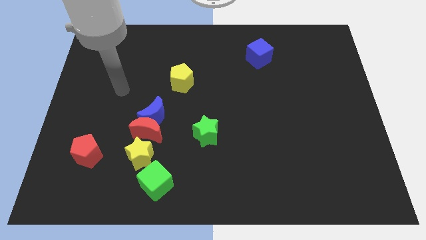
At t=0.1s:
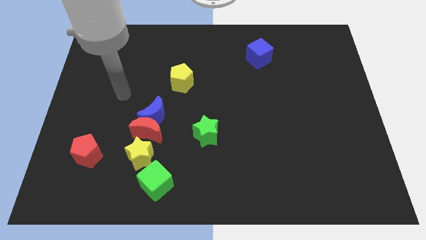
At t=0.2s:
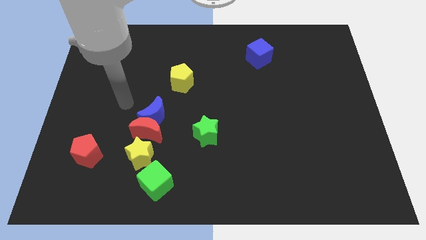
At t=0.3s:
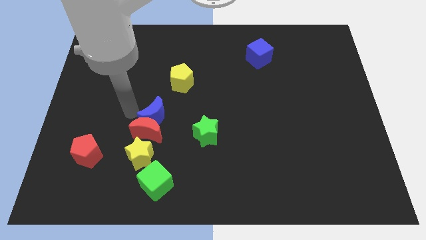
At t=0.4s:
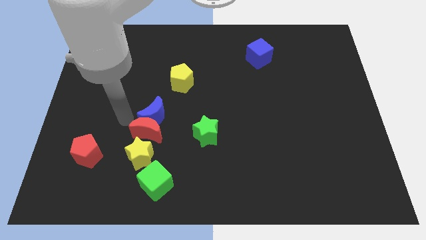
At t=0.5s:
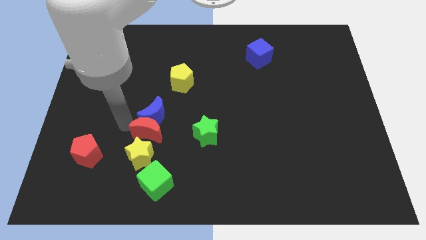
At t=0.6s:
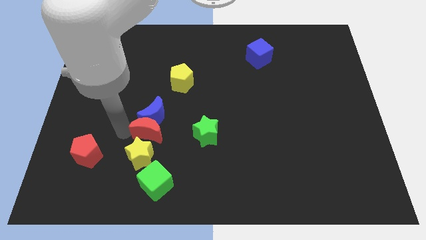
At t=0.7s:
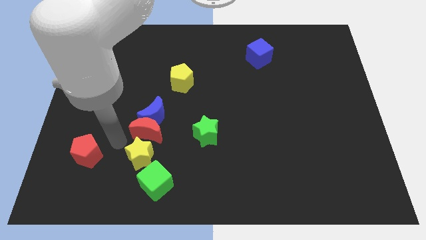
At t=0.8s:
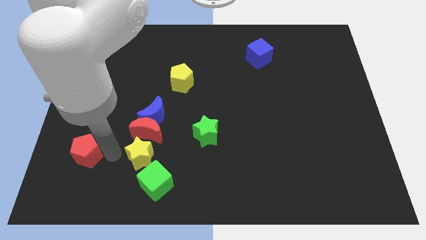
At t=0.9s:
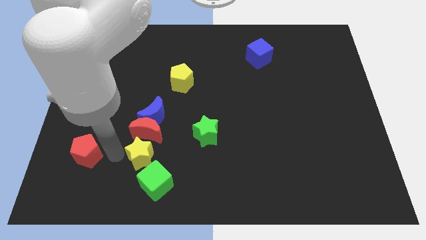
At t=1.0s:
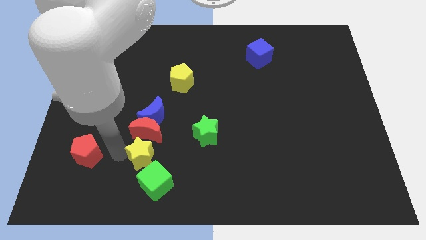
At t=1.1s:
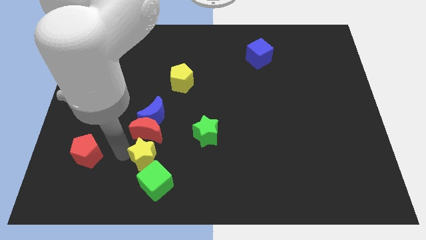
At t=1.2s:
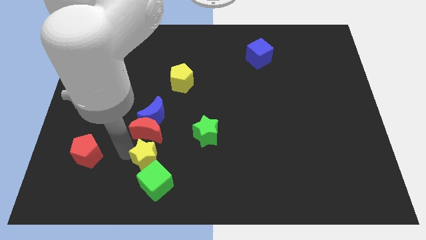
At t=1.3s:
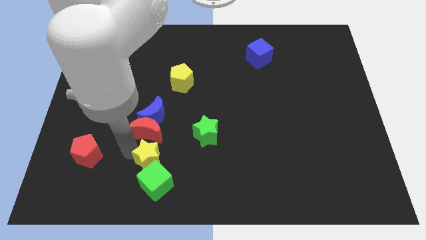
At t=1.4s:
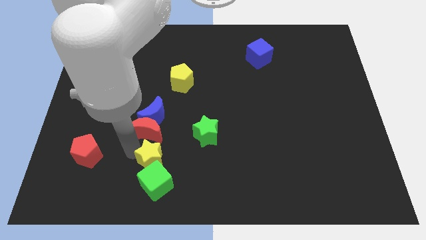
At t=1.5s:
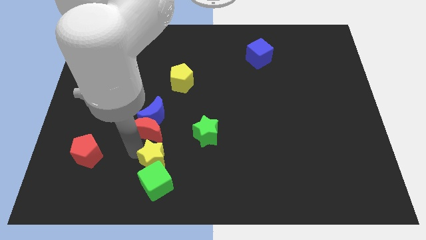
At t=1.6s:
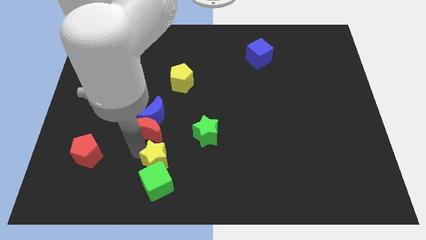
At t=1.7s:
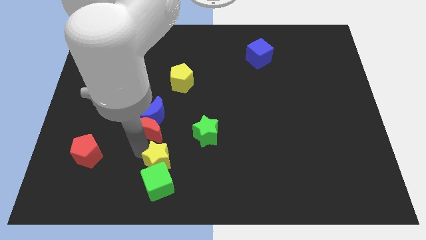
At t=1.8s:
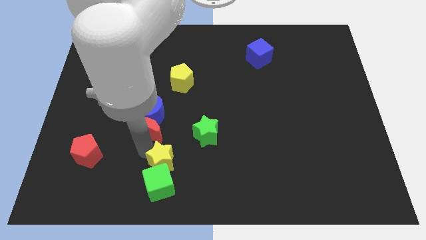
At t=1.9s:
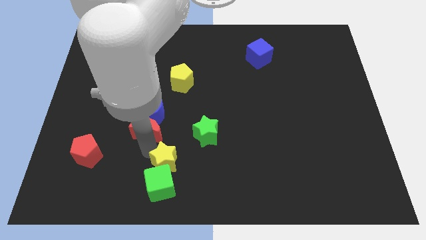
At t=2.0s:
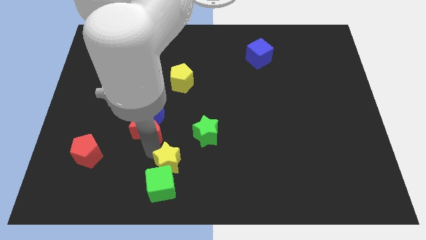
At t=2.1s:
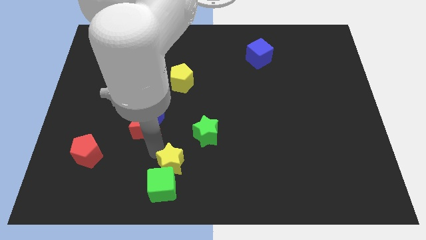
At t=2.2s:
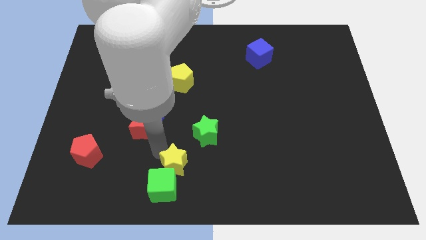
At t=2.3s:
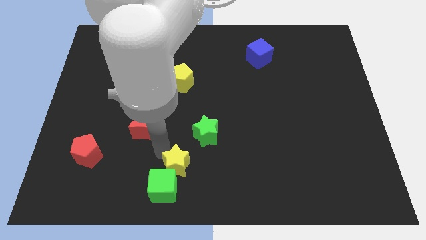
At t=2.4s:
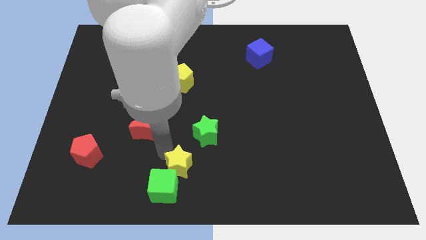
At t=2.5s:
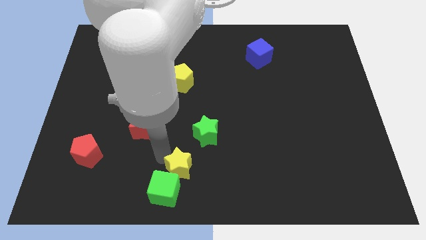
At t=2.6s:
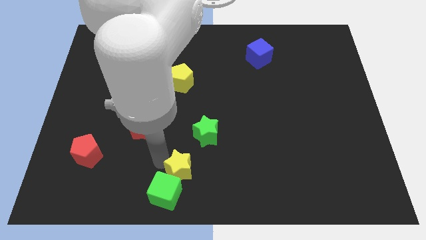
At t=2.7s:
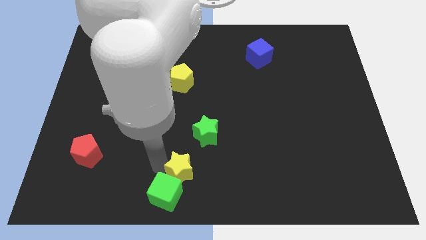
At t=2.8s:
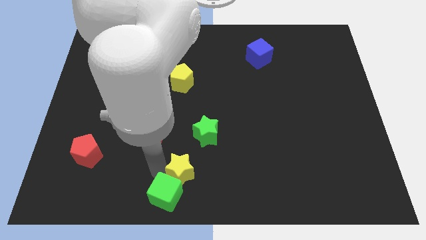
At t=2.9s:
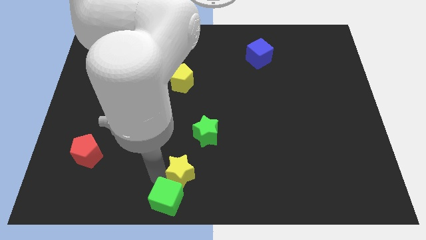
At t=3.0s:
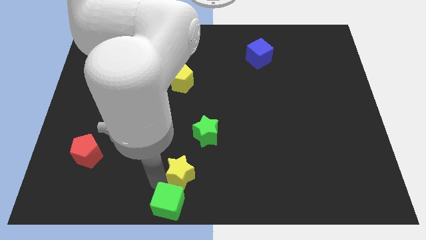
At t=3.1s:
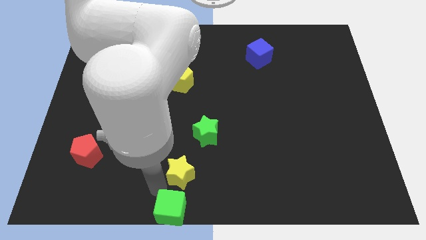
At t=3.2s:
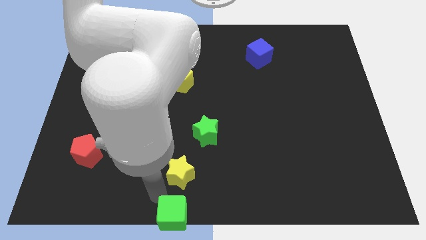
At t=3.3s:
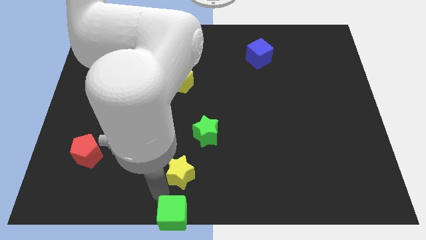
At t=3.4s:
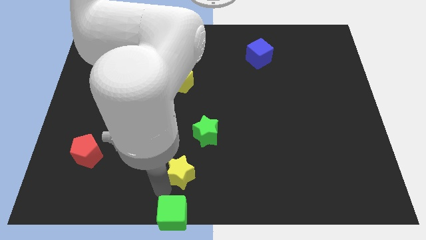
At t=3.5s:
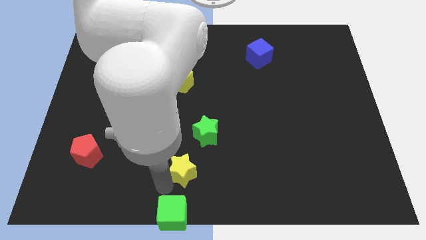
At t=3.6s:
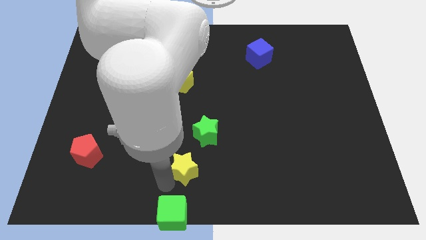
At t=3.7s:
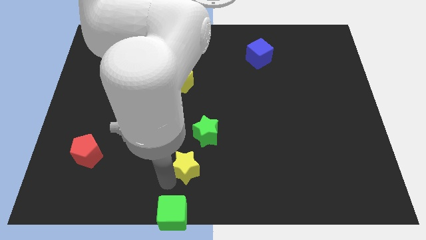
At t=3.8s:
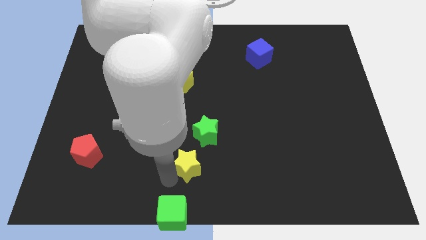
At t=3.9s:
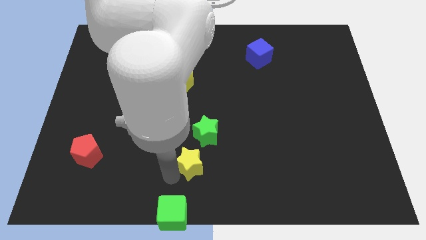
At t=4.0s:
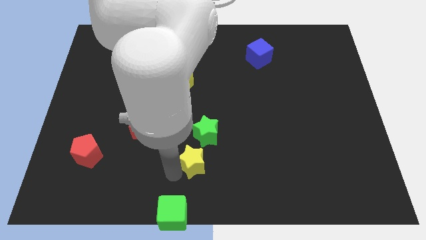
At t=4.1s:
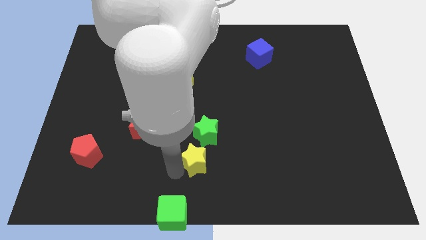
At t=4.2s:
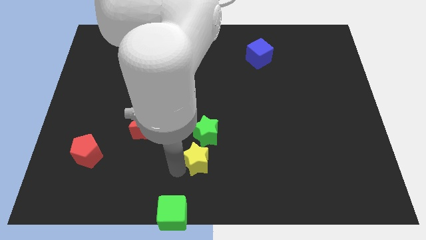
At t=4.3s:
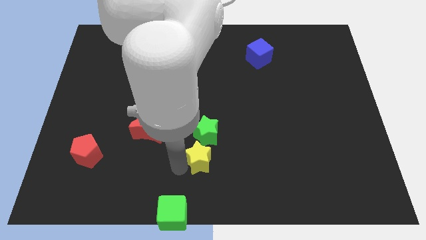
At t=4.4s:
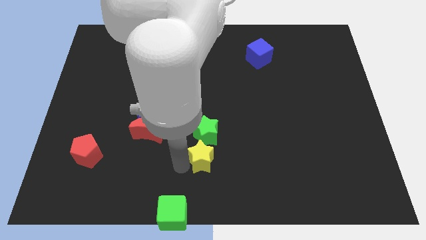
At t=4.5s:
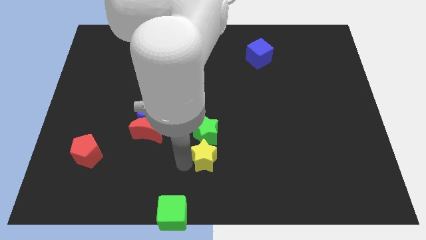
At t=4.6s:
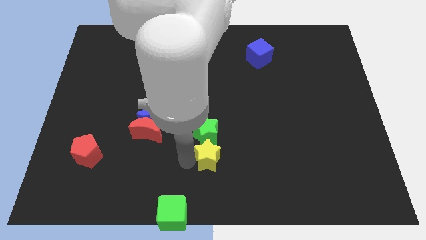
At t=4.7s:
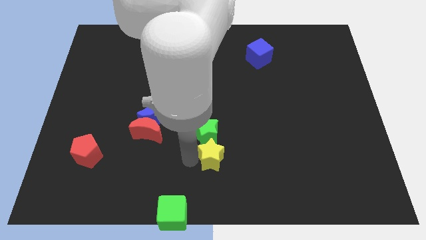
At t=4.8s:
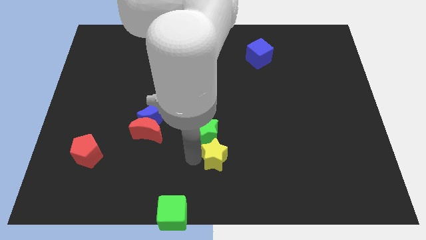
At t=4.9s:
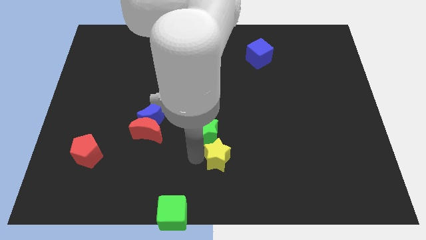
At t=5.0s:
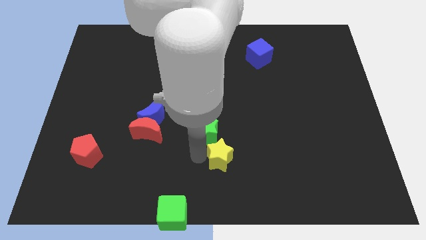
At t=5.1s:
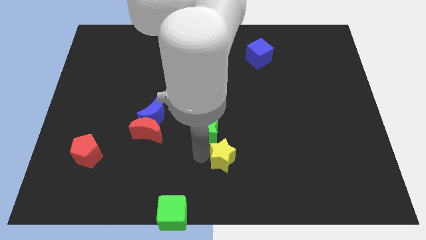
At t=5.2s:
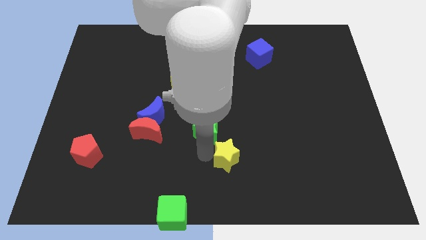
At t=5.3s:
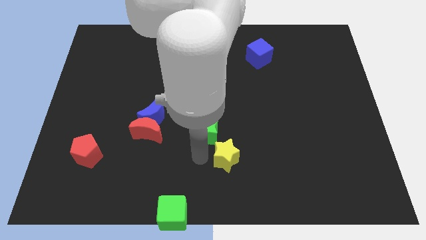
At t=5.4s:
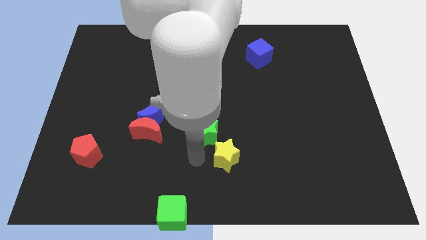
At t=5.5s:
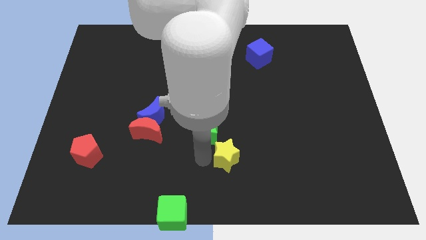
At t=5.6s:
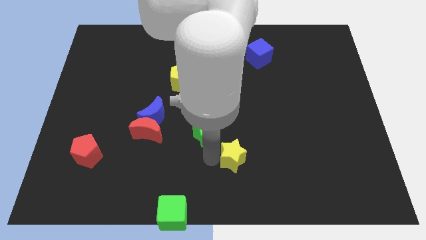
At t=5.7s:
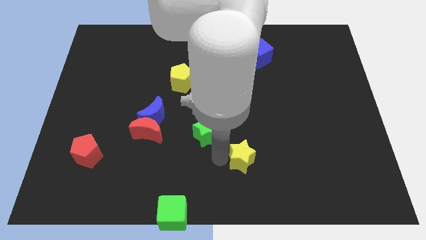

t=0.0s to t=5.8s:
push the yellow star right

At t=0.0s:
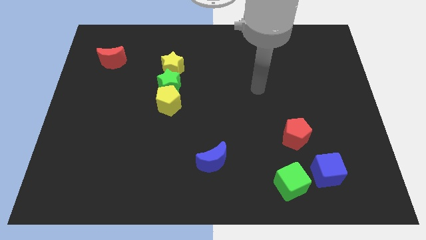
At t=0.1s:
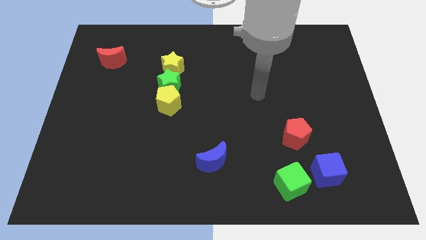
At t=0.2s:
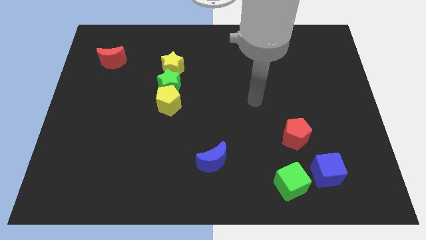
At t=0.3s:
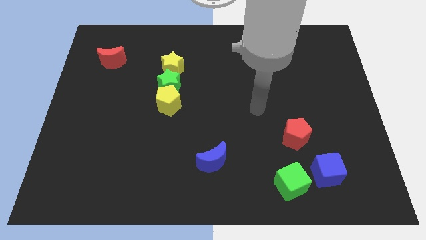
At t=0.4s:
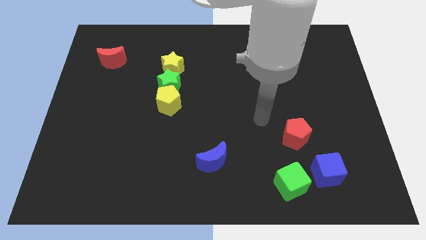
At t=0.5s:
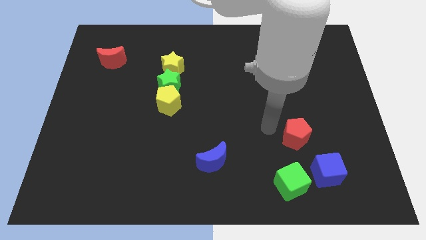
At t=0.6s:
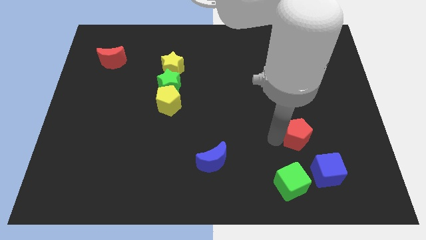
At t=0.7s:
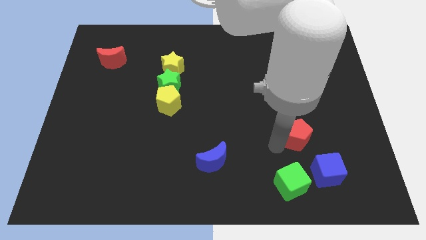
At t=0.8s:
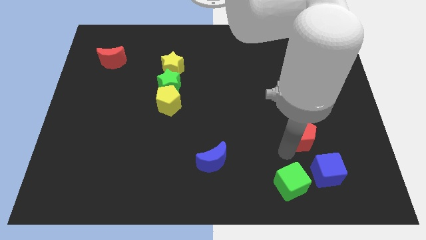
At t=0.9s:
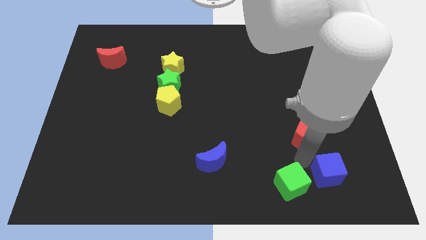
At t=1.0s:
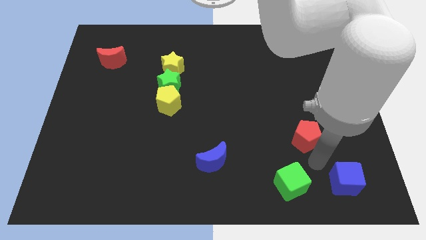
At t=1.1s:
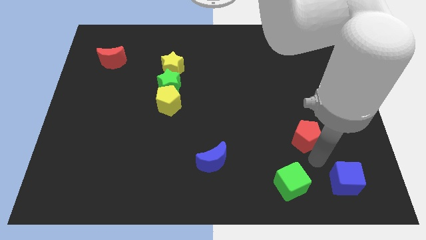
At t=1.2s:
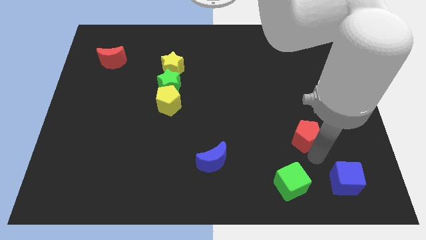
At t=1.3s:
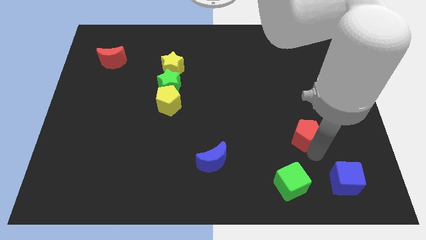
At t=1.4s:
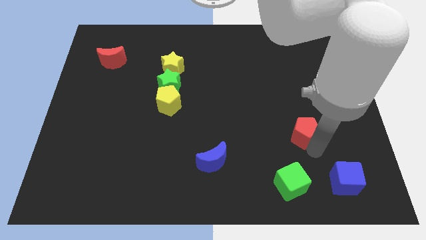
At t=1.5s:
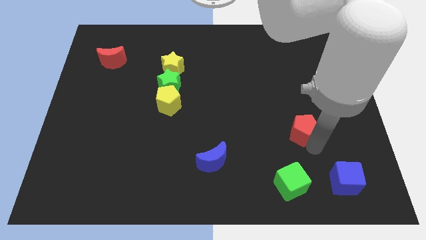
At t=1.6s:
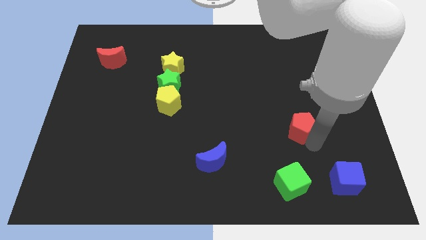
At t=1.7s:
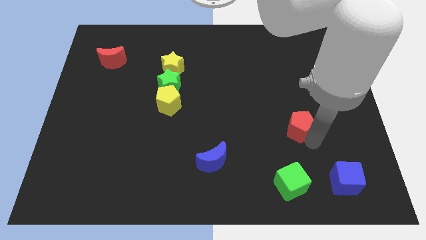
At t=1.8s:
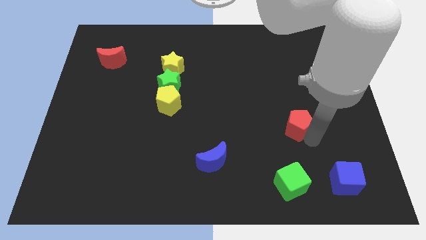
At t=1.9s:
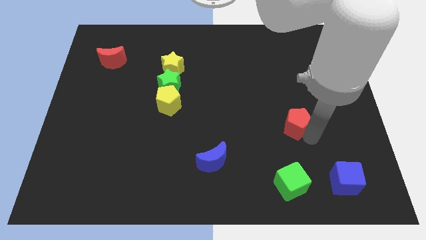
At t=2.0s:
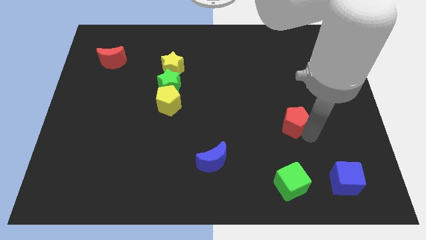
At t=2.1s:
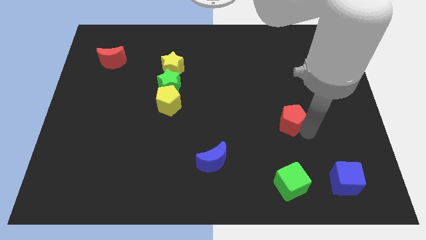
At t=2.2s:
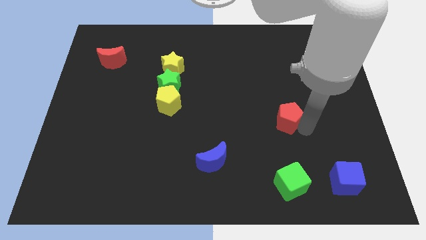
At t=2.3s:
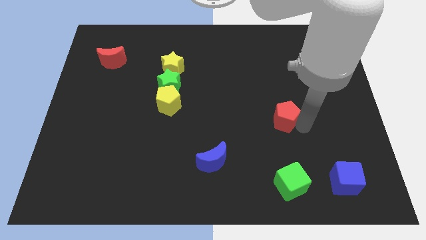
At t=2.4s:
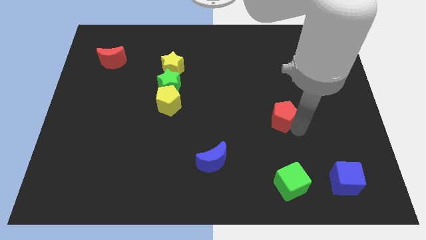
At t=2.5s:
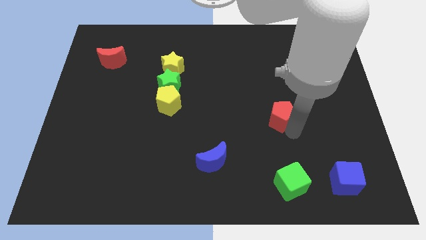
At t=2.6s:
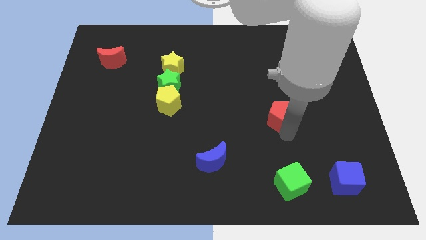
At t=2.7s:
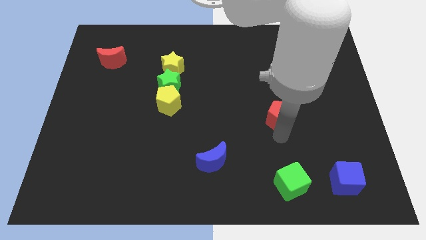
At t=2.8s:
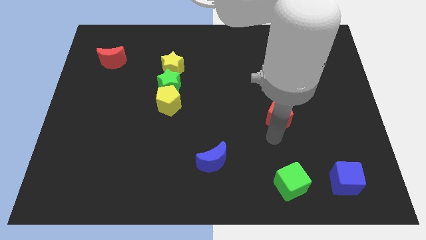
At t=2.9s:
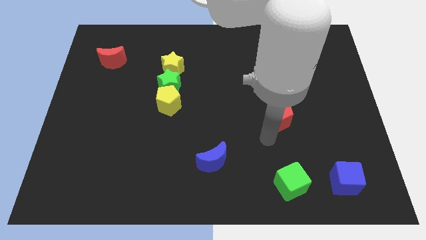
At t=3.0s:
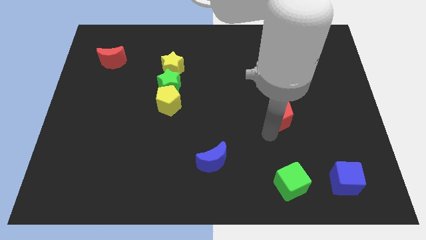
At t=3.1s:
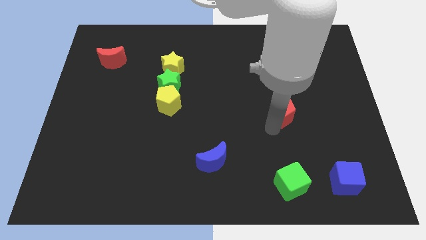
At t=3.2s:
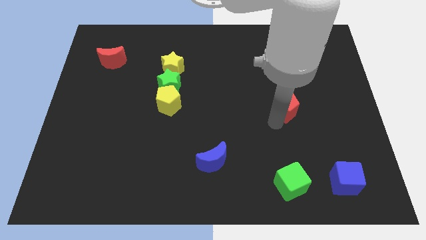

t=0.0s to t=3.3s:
push the red pentagon a little upwards
